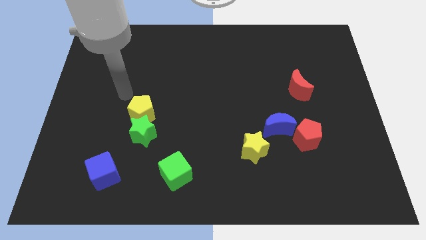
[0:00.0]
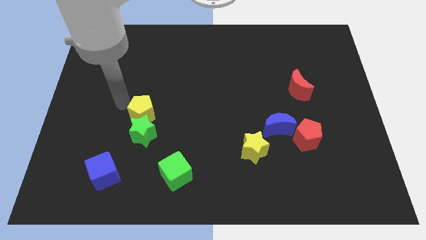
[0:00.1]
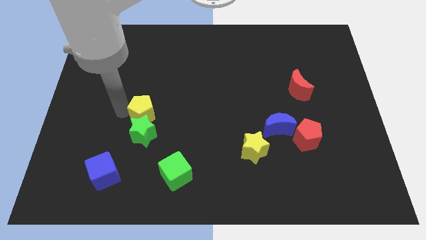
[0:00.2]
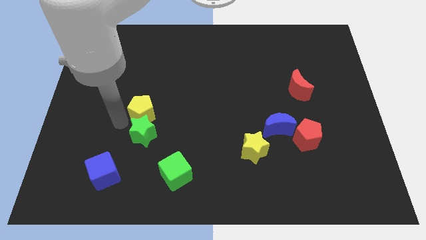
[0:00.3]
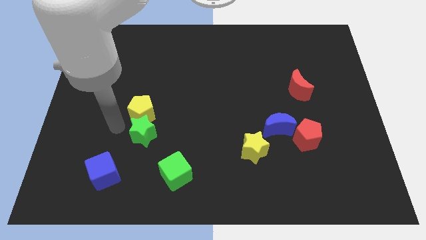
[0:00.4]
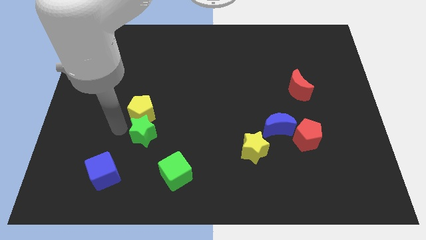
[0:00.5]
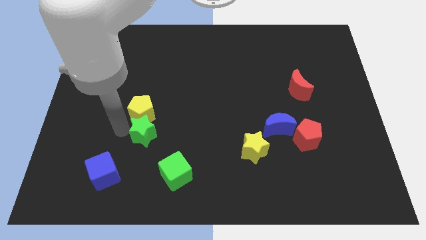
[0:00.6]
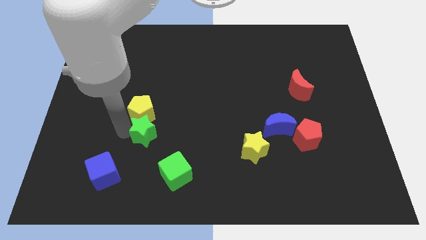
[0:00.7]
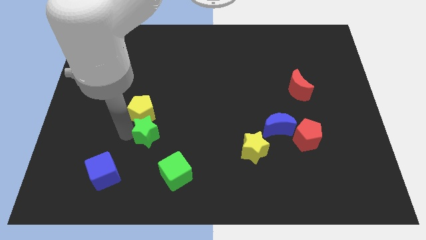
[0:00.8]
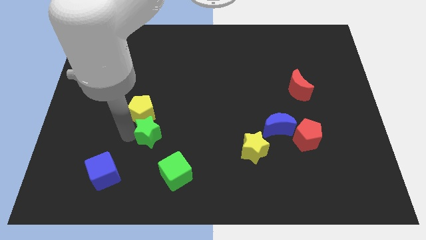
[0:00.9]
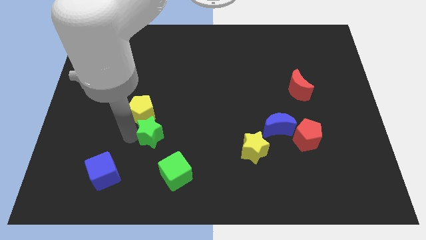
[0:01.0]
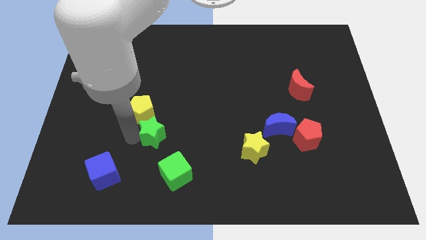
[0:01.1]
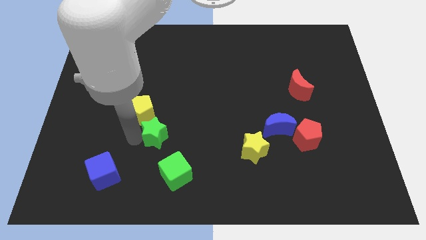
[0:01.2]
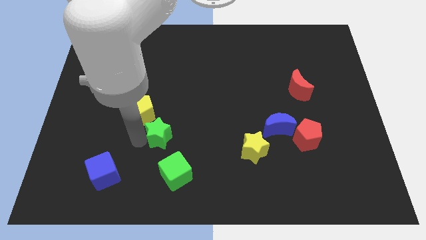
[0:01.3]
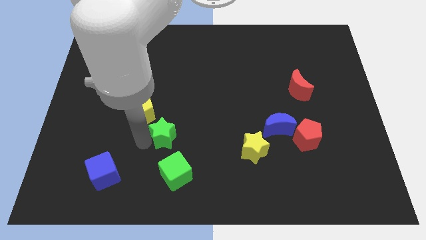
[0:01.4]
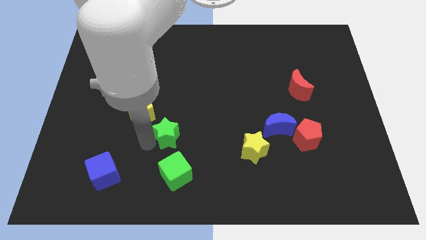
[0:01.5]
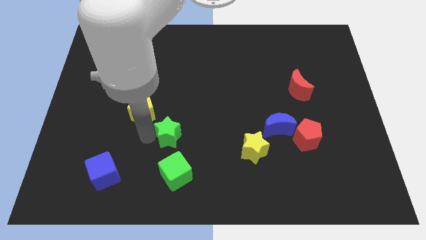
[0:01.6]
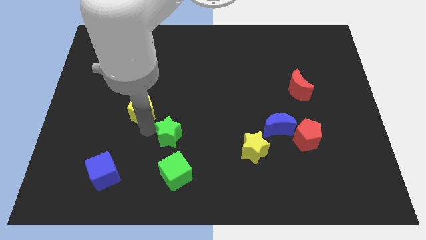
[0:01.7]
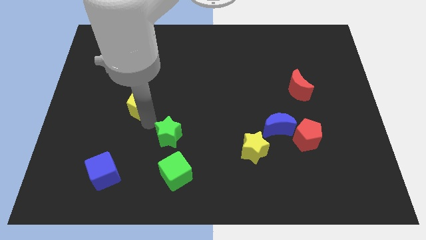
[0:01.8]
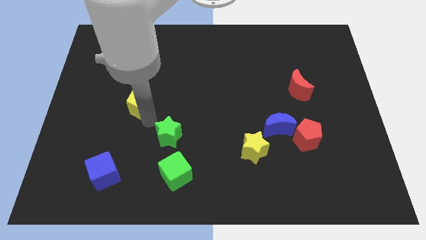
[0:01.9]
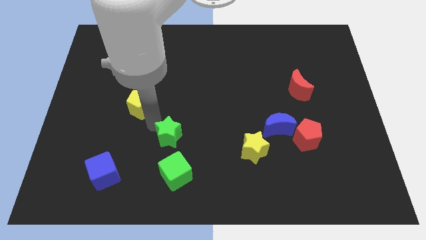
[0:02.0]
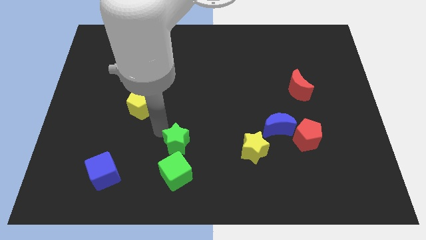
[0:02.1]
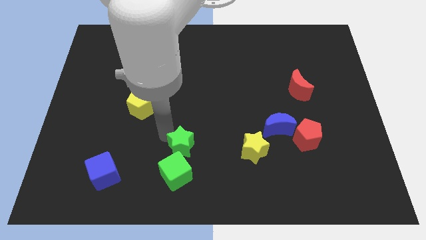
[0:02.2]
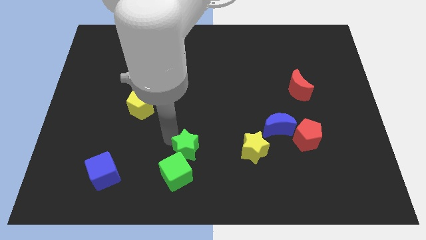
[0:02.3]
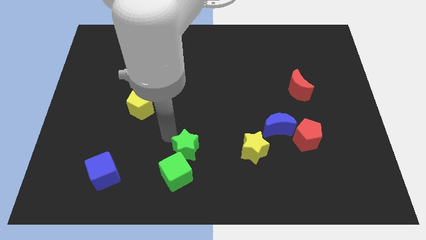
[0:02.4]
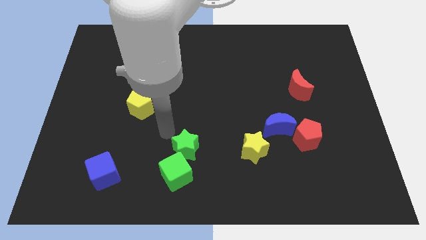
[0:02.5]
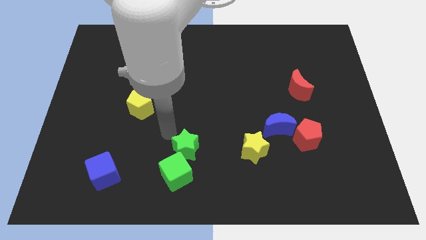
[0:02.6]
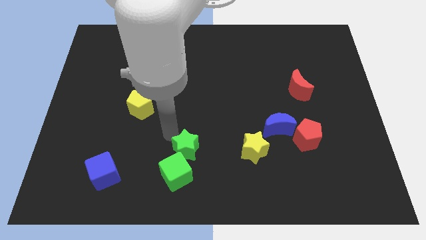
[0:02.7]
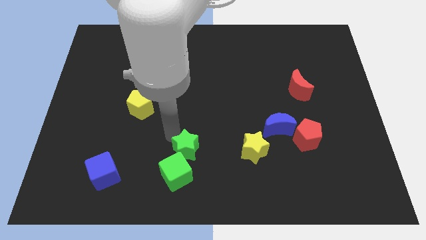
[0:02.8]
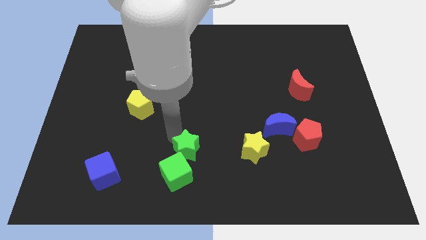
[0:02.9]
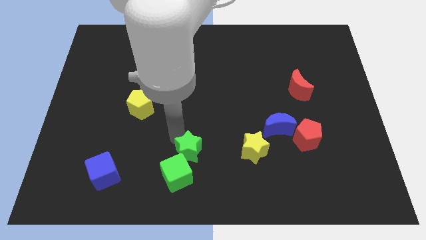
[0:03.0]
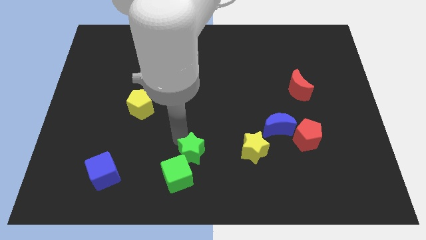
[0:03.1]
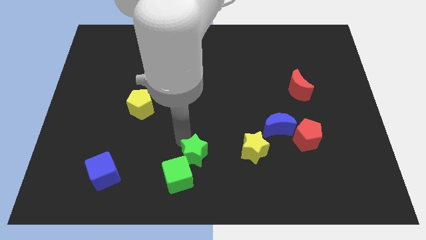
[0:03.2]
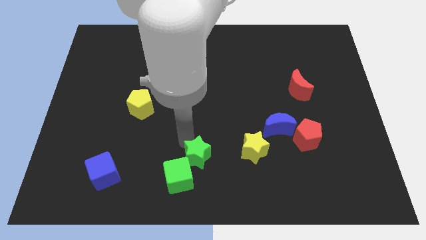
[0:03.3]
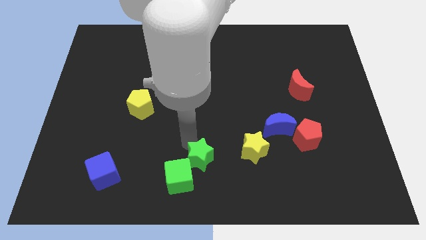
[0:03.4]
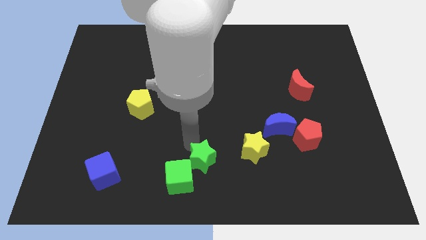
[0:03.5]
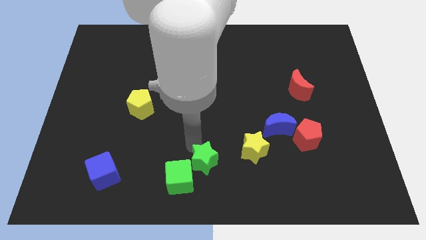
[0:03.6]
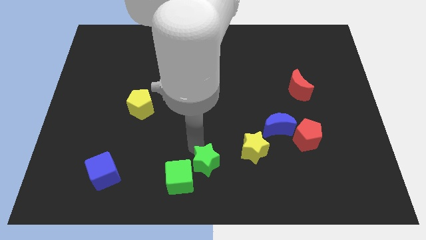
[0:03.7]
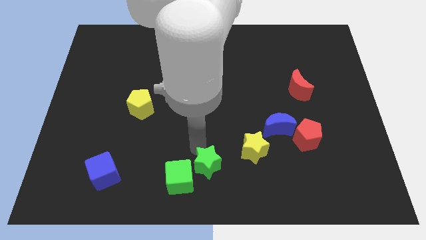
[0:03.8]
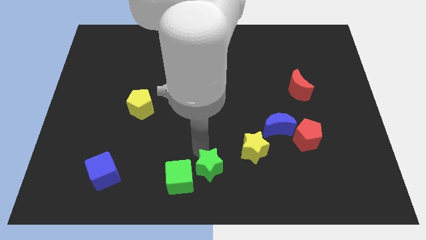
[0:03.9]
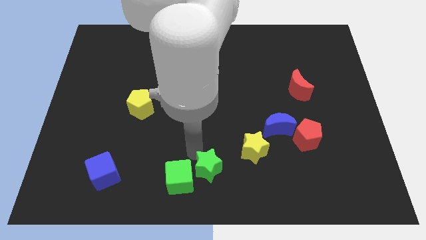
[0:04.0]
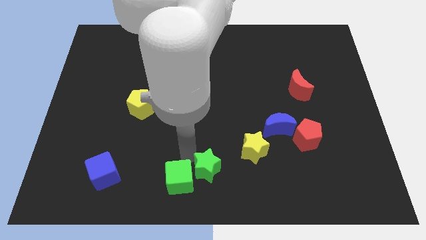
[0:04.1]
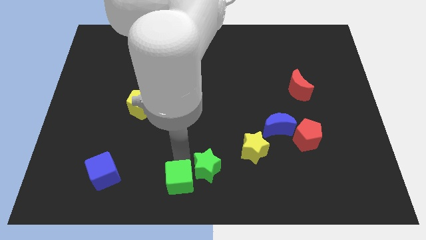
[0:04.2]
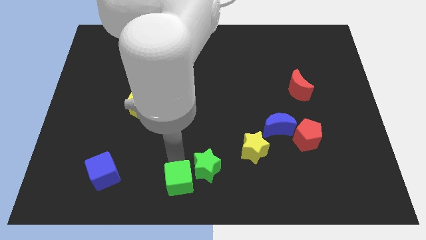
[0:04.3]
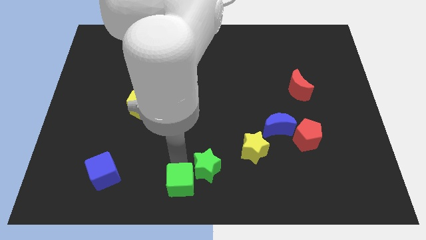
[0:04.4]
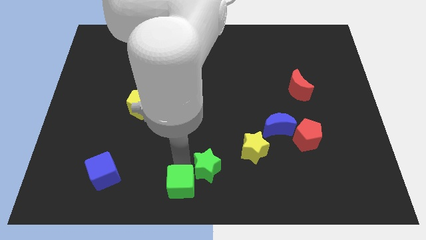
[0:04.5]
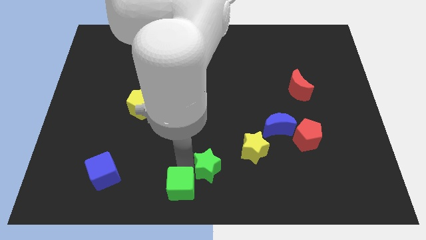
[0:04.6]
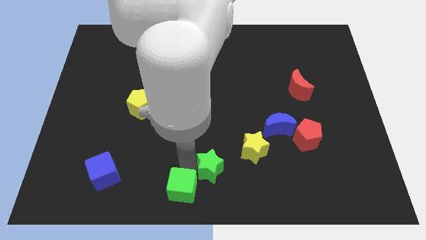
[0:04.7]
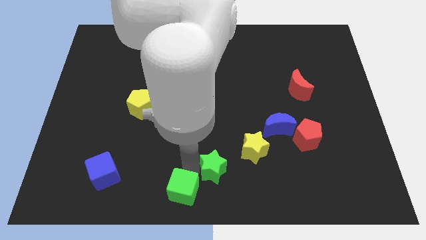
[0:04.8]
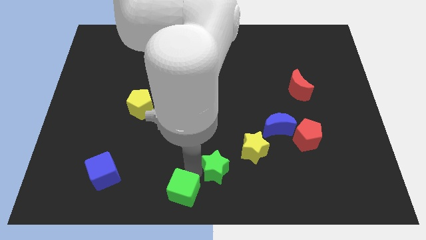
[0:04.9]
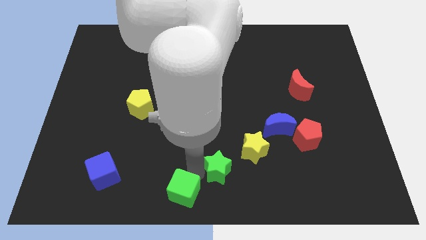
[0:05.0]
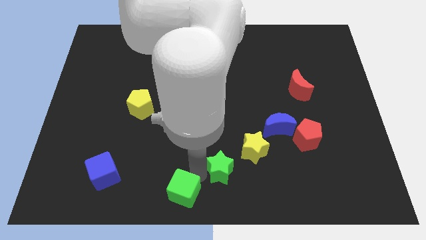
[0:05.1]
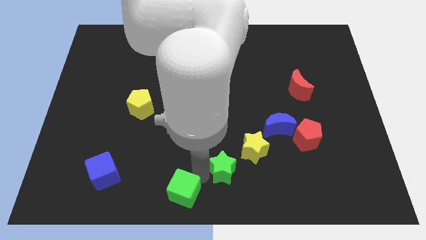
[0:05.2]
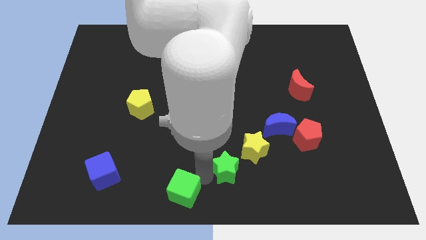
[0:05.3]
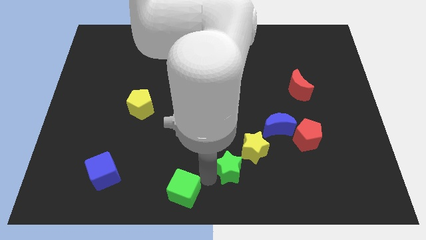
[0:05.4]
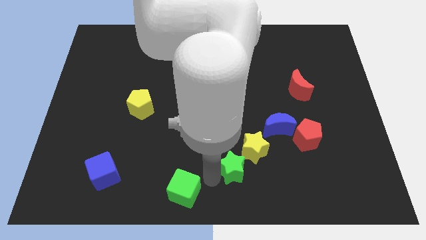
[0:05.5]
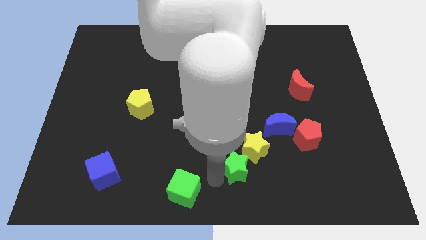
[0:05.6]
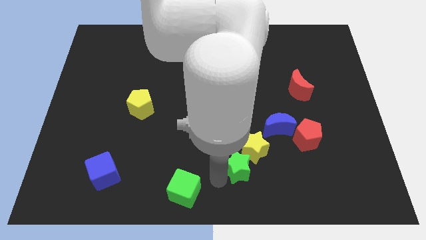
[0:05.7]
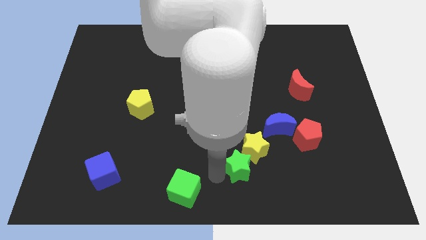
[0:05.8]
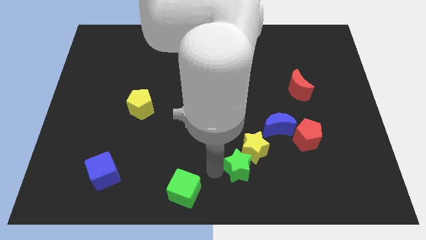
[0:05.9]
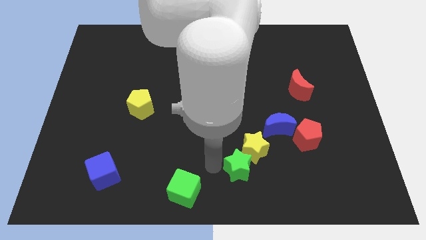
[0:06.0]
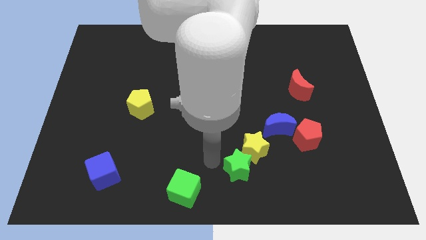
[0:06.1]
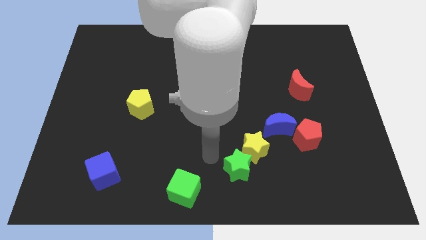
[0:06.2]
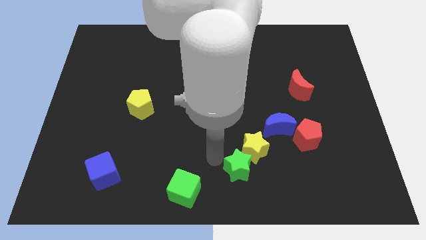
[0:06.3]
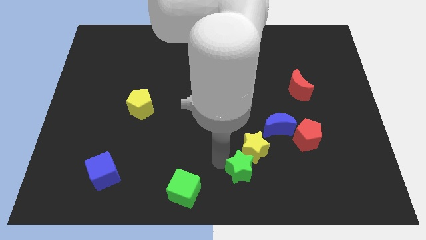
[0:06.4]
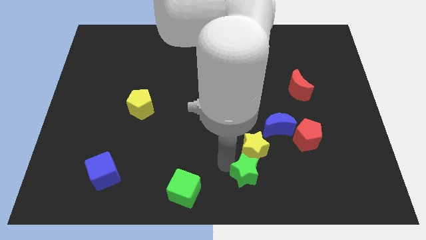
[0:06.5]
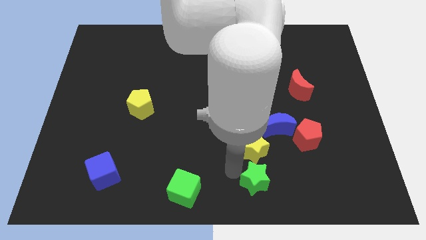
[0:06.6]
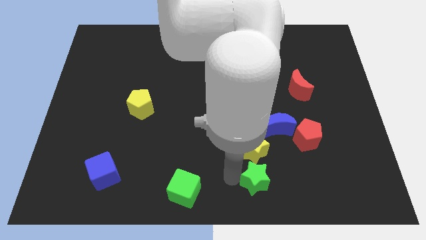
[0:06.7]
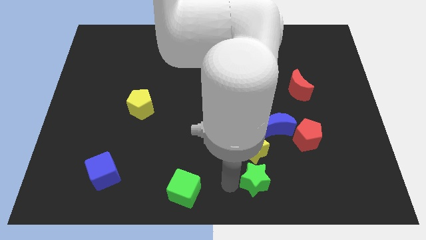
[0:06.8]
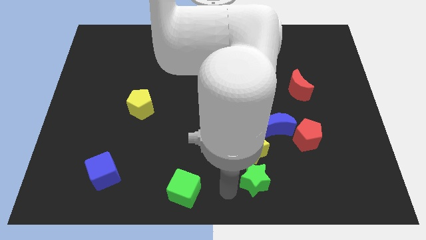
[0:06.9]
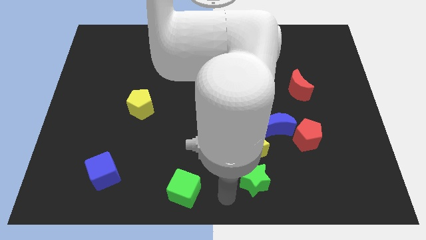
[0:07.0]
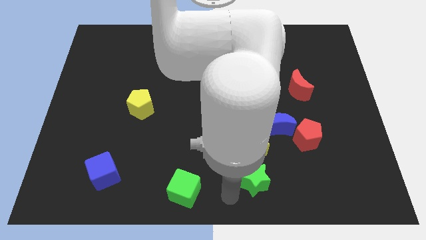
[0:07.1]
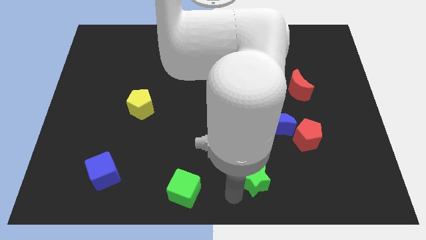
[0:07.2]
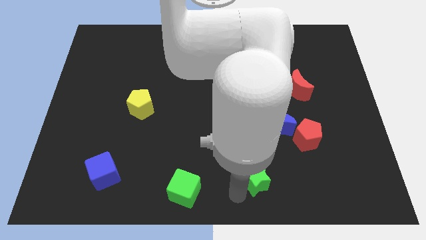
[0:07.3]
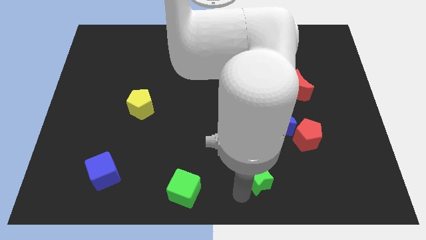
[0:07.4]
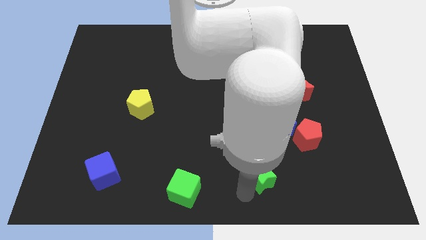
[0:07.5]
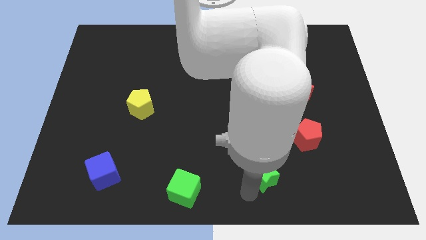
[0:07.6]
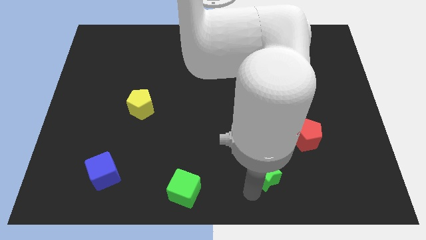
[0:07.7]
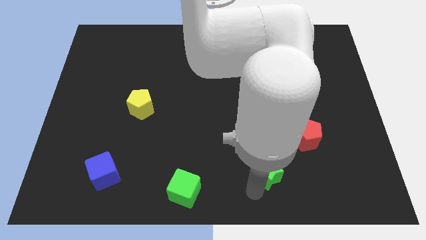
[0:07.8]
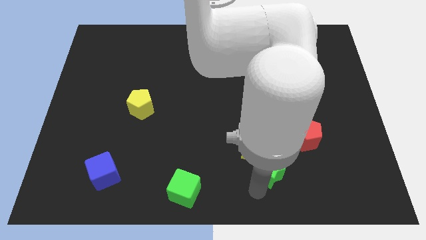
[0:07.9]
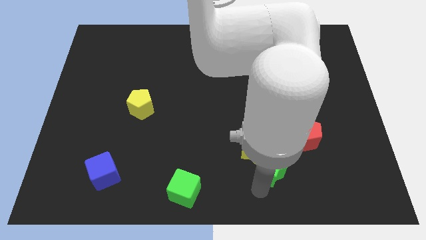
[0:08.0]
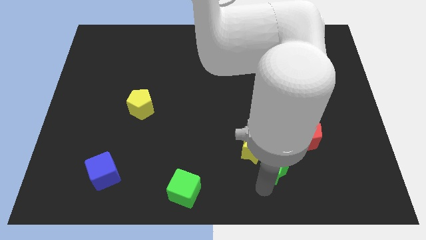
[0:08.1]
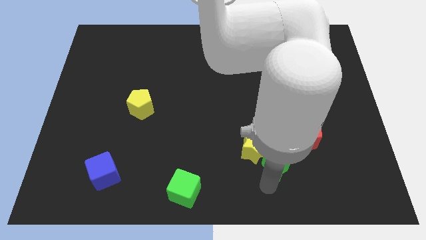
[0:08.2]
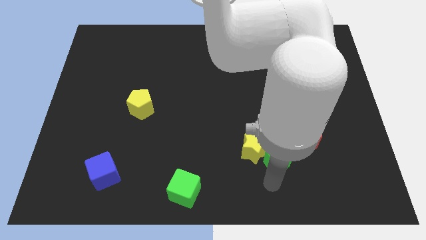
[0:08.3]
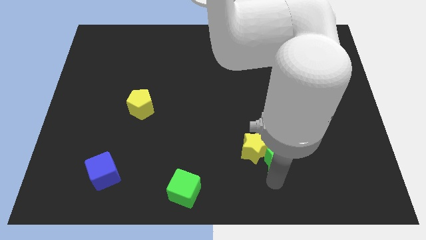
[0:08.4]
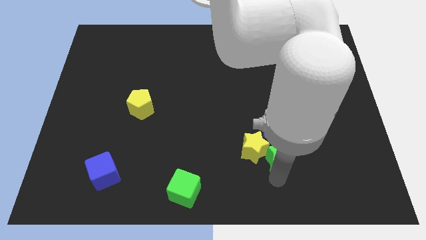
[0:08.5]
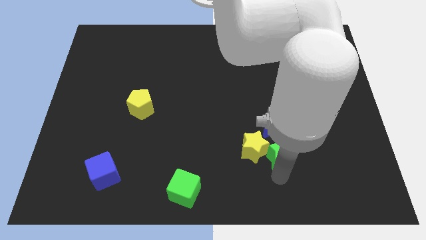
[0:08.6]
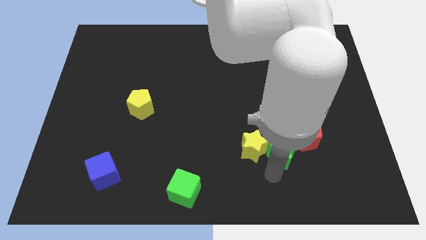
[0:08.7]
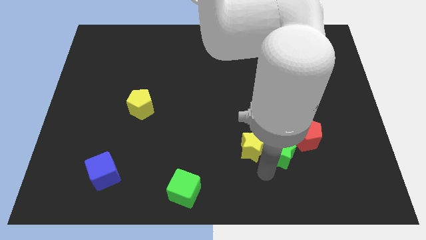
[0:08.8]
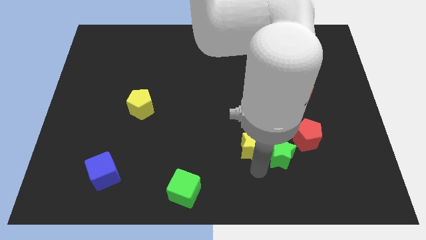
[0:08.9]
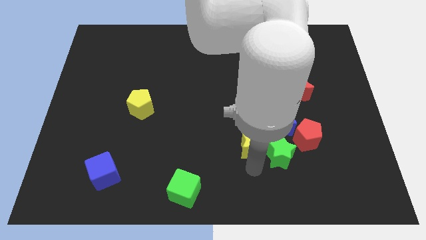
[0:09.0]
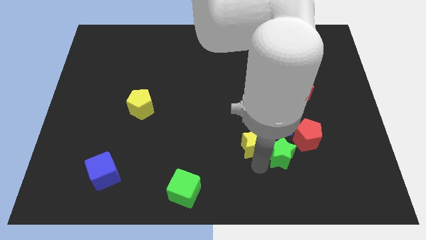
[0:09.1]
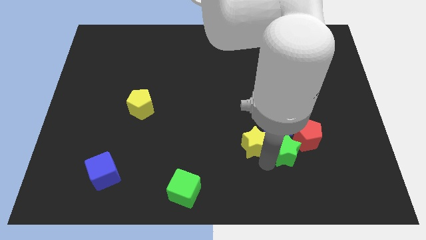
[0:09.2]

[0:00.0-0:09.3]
slide the green star to the bottom right side of the blue moon
